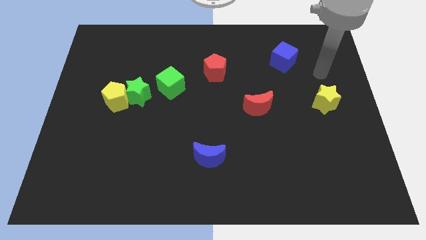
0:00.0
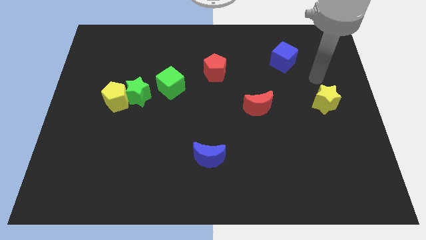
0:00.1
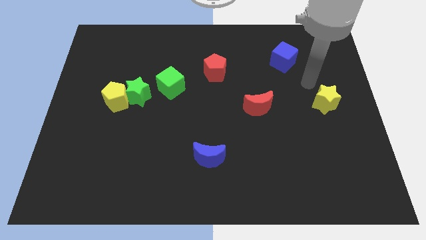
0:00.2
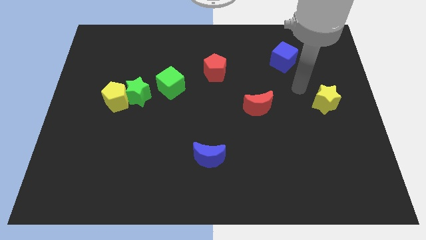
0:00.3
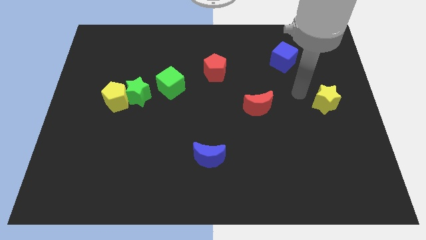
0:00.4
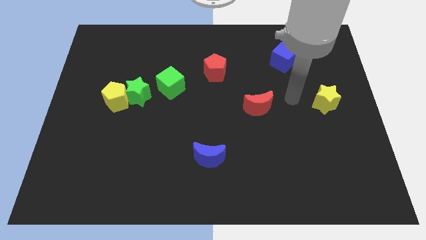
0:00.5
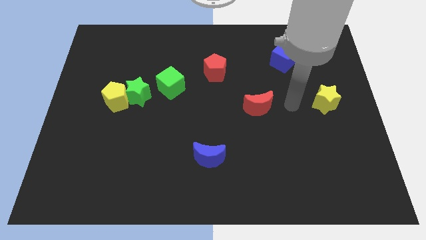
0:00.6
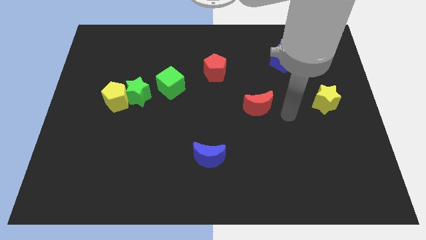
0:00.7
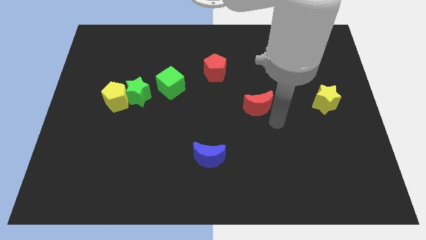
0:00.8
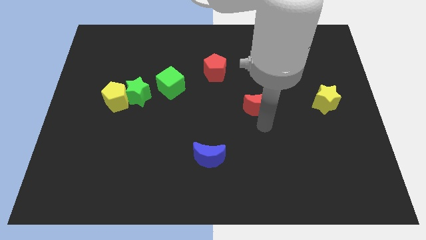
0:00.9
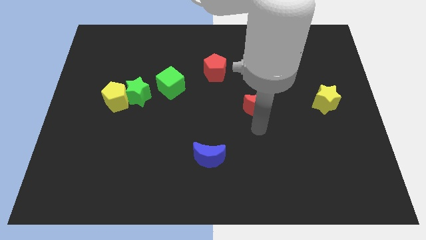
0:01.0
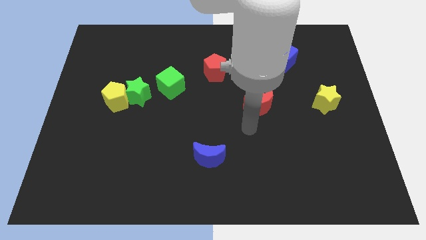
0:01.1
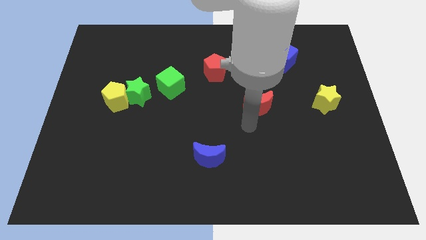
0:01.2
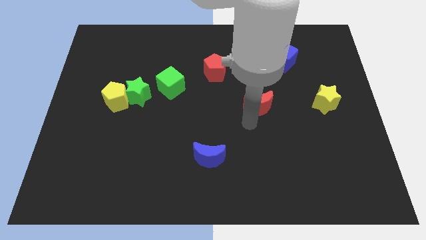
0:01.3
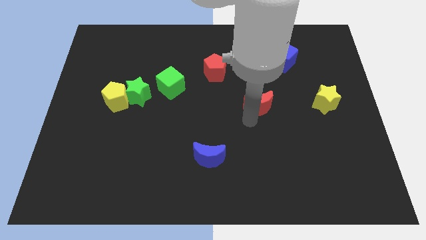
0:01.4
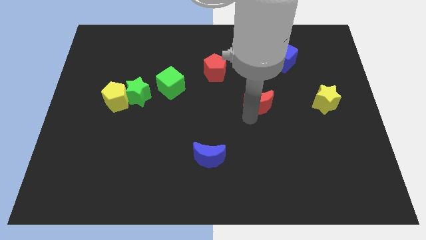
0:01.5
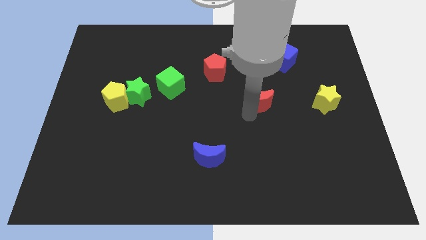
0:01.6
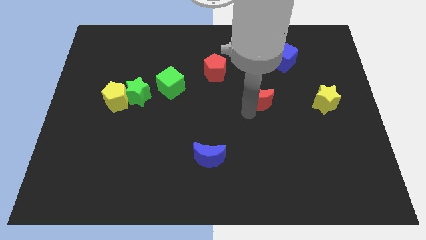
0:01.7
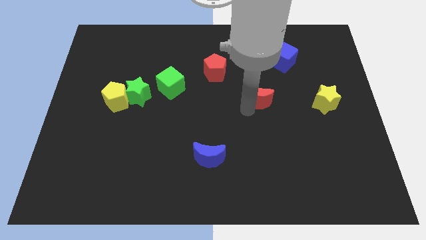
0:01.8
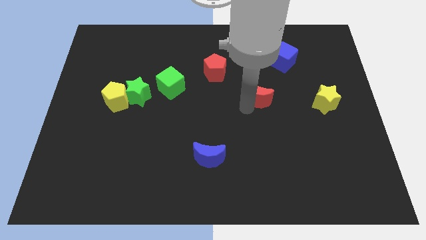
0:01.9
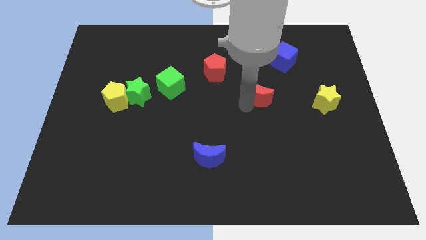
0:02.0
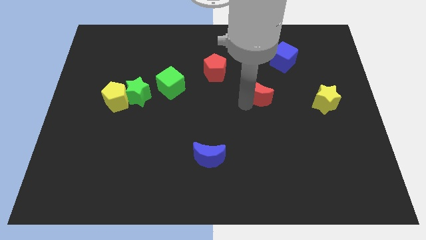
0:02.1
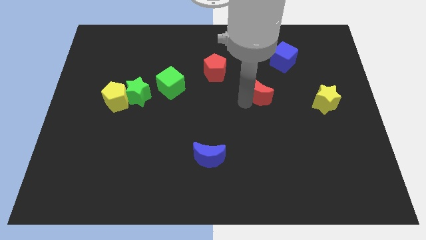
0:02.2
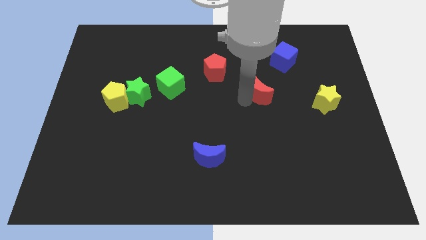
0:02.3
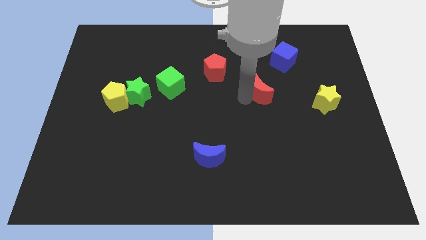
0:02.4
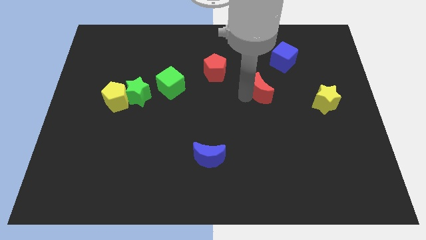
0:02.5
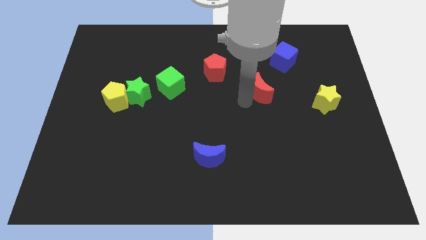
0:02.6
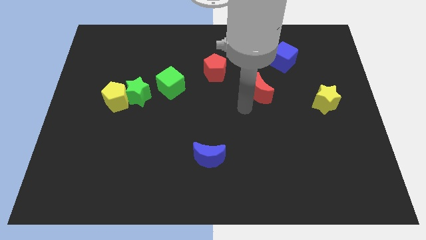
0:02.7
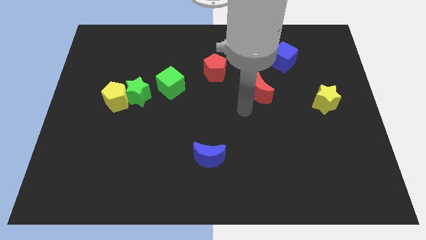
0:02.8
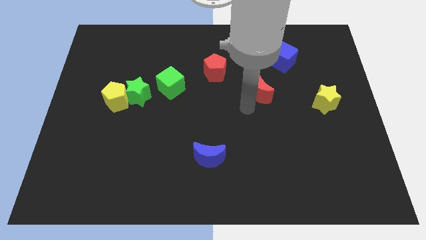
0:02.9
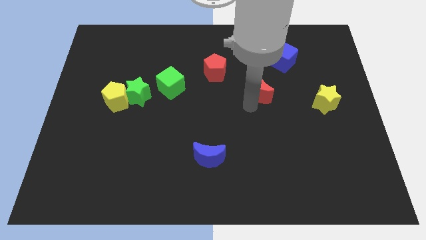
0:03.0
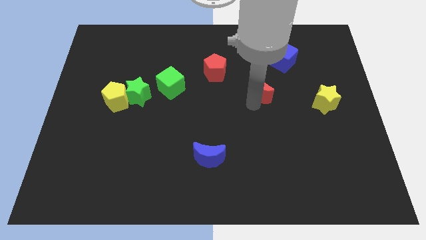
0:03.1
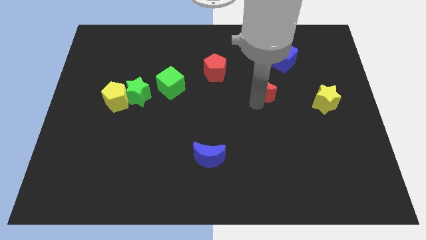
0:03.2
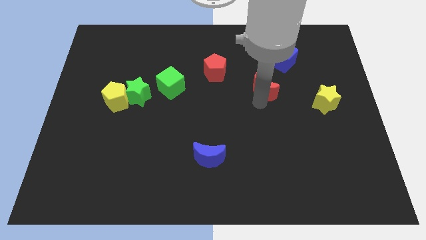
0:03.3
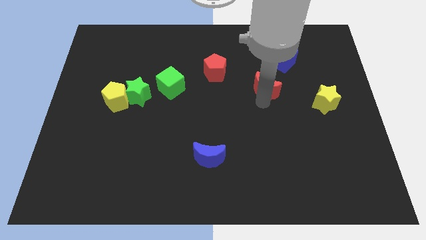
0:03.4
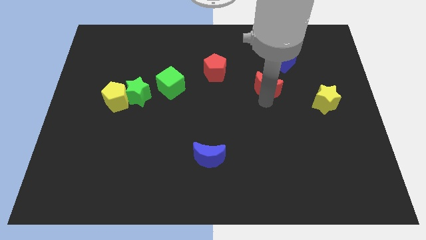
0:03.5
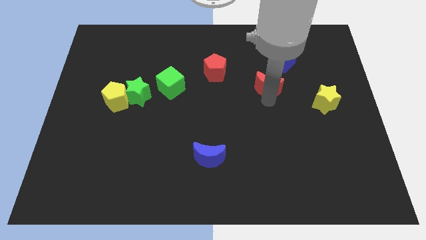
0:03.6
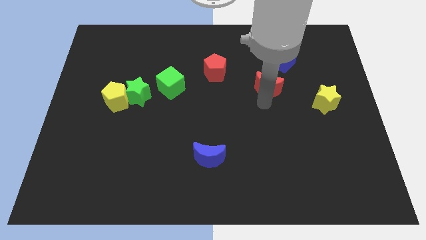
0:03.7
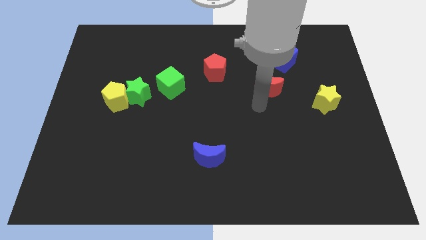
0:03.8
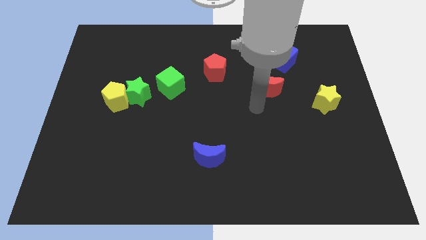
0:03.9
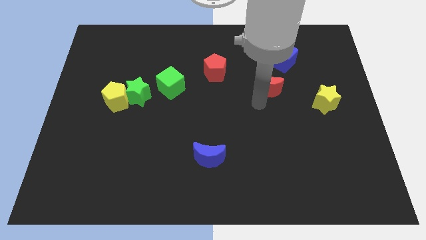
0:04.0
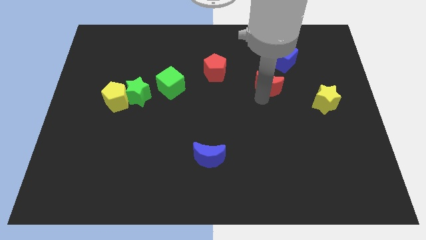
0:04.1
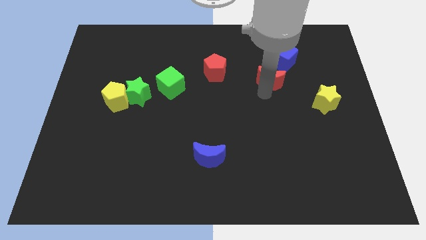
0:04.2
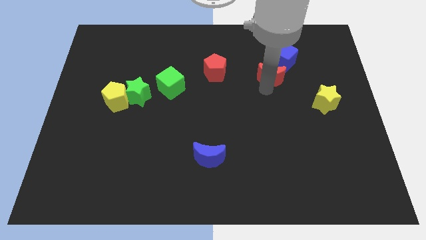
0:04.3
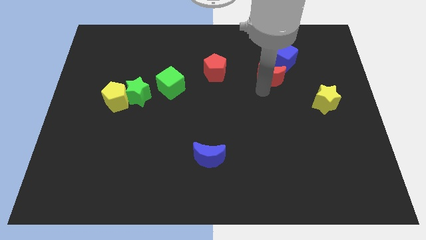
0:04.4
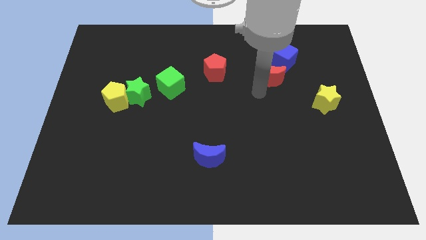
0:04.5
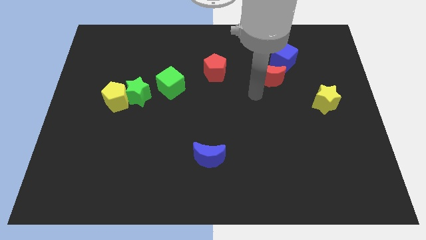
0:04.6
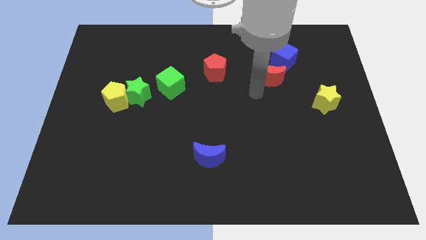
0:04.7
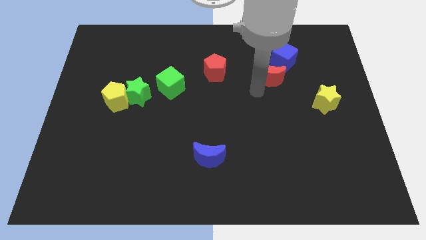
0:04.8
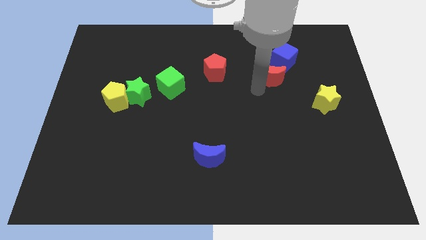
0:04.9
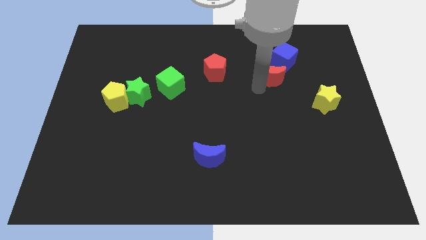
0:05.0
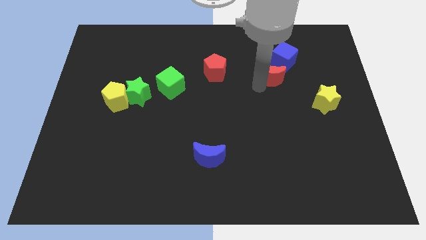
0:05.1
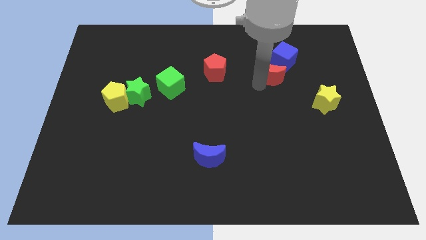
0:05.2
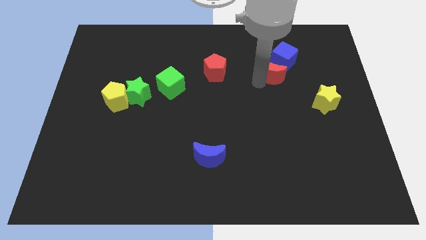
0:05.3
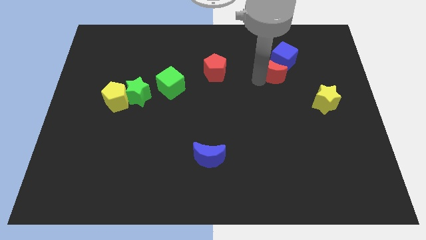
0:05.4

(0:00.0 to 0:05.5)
slide the red moon next to the blue cube

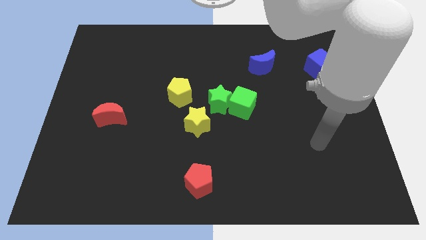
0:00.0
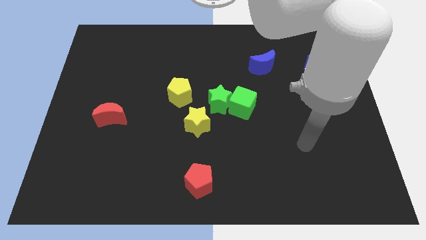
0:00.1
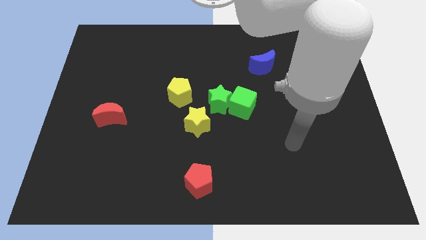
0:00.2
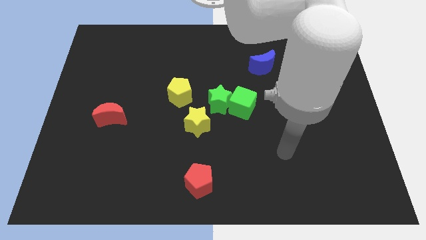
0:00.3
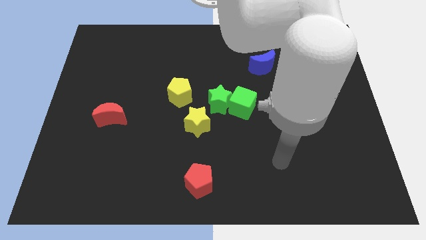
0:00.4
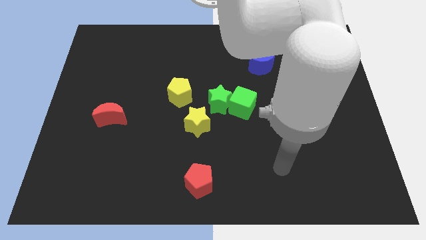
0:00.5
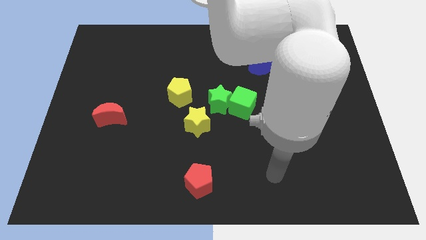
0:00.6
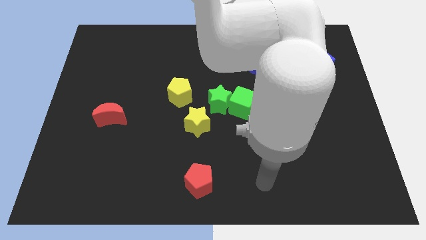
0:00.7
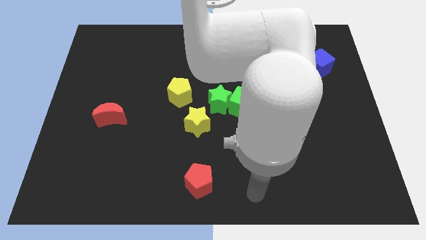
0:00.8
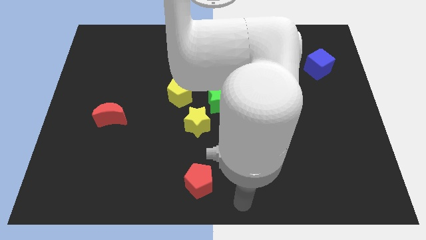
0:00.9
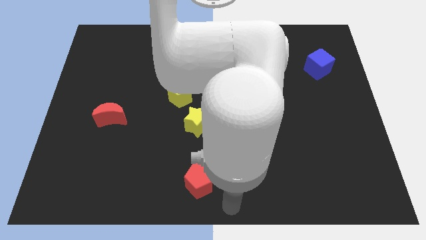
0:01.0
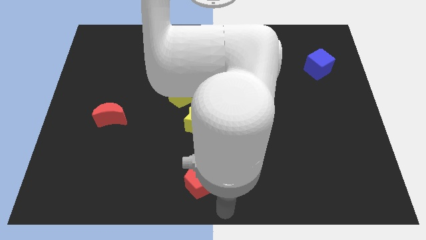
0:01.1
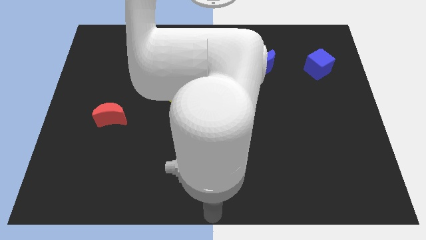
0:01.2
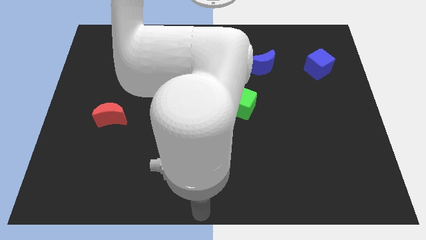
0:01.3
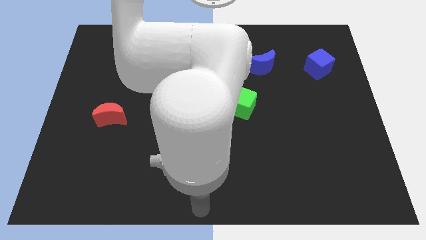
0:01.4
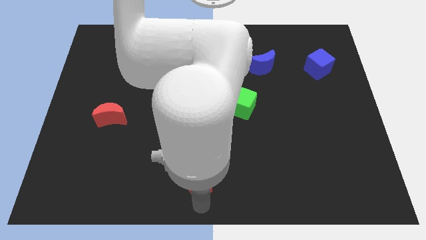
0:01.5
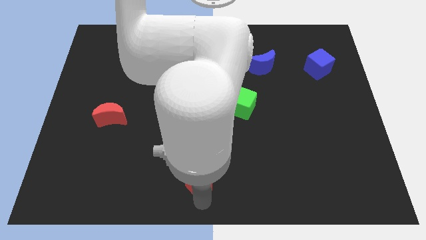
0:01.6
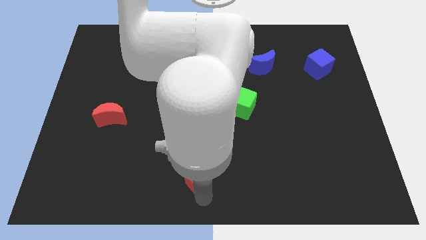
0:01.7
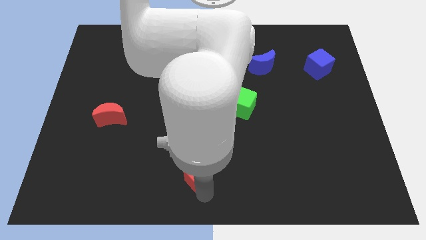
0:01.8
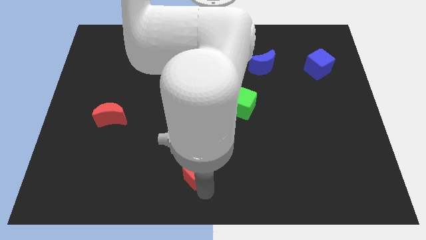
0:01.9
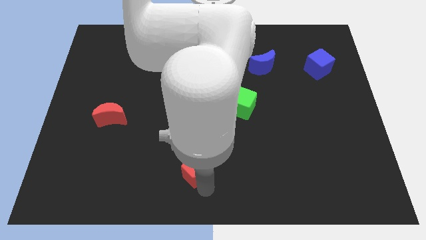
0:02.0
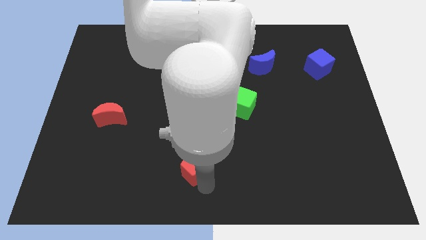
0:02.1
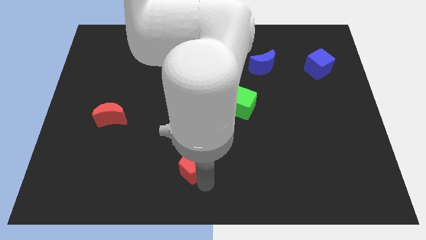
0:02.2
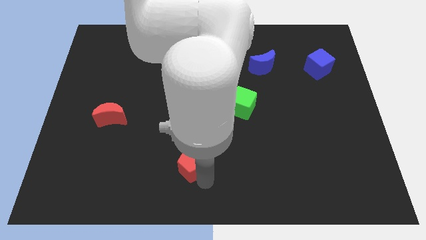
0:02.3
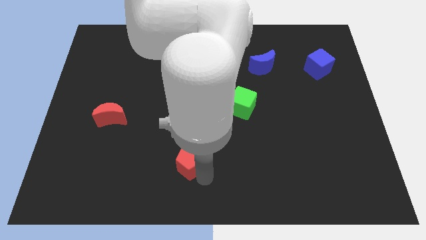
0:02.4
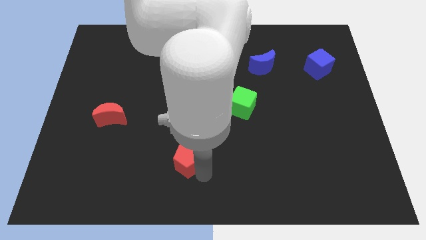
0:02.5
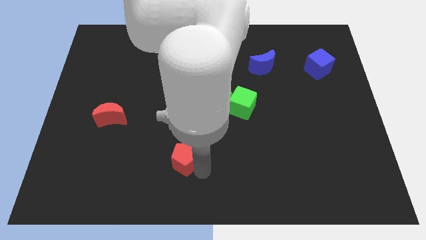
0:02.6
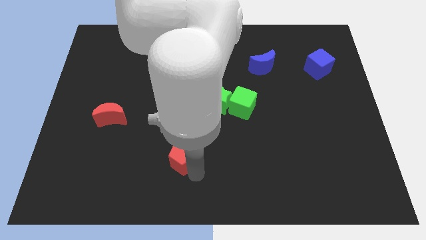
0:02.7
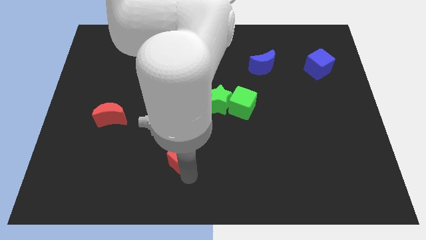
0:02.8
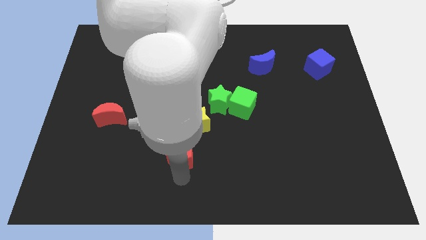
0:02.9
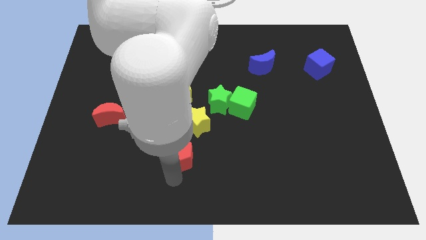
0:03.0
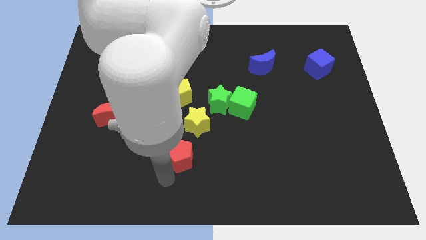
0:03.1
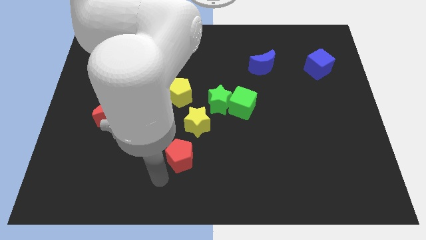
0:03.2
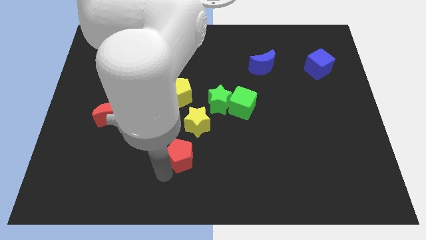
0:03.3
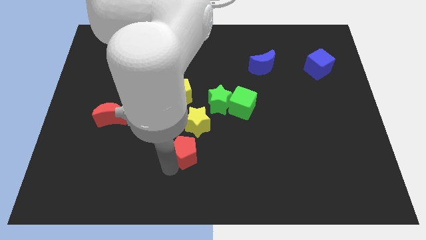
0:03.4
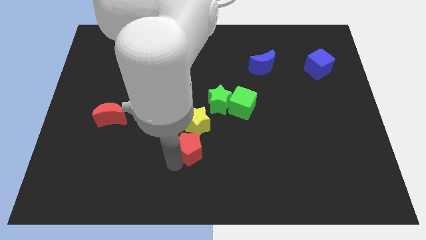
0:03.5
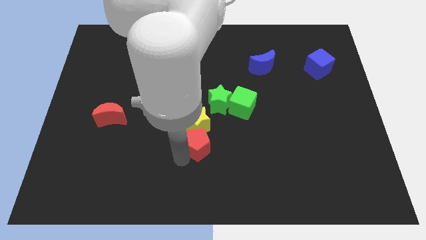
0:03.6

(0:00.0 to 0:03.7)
slide the red pentagon towards the yellow star
